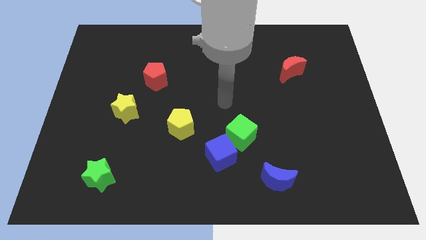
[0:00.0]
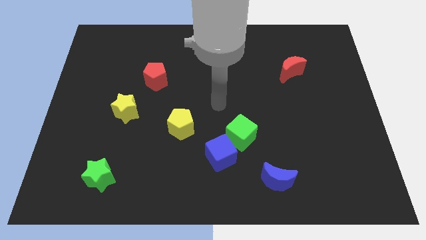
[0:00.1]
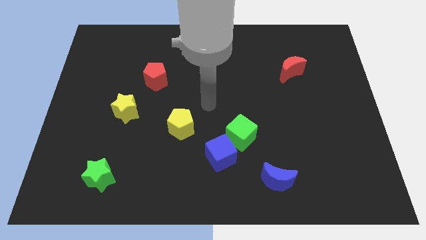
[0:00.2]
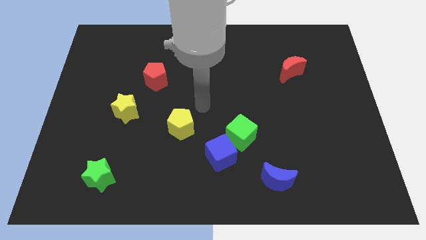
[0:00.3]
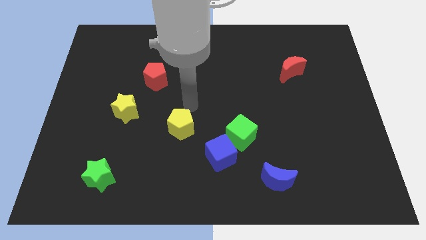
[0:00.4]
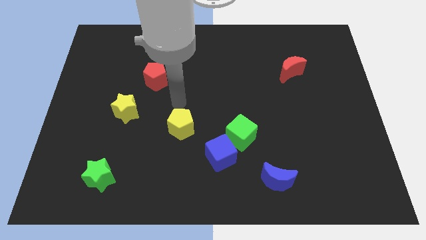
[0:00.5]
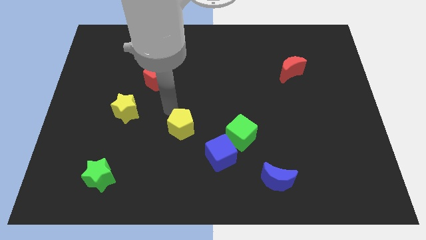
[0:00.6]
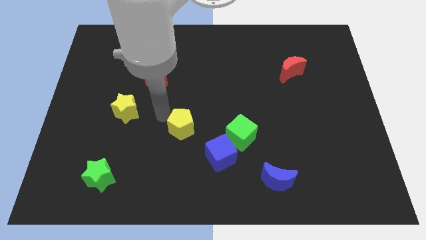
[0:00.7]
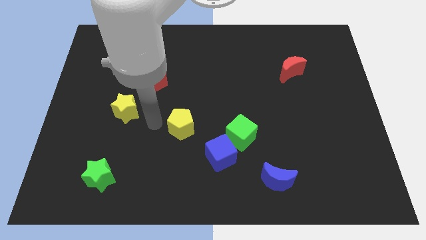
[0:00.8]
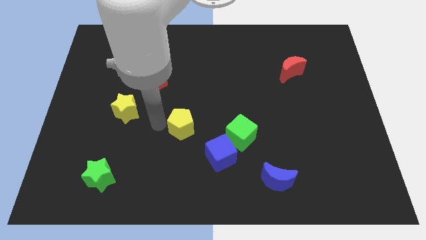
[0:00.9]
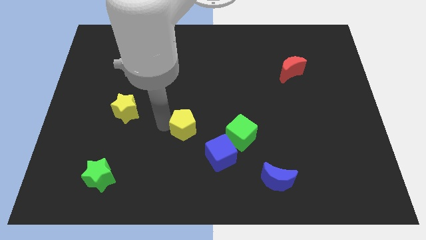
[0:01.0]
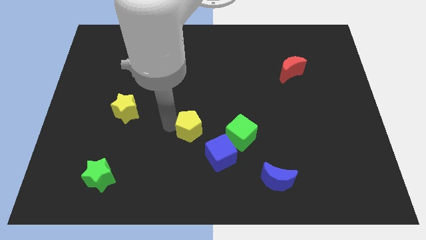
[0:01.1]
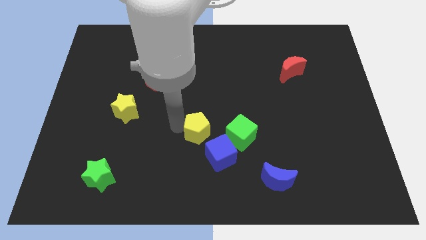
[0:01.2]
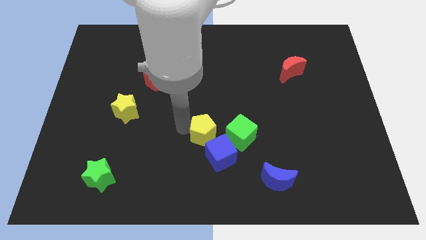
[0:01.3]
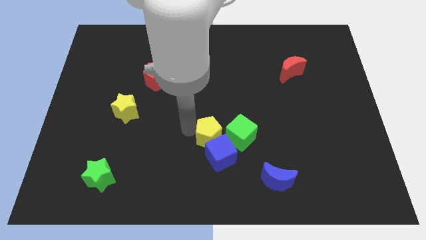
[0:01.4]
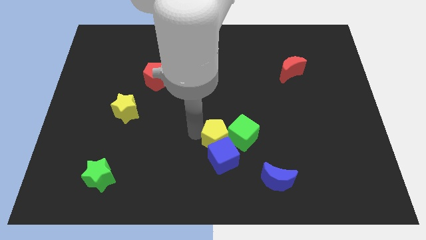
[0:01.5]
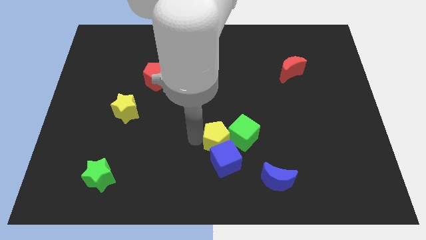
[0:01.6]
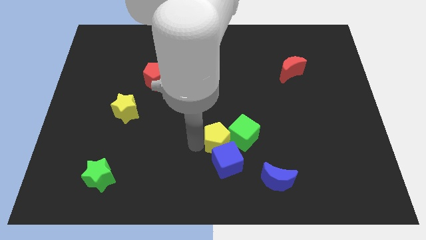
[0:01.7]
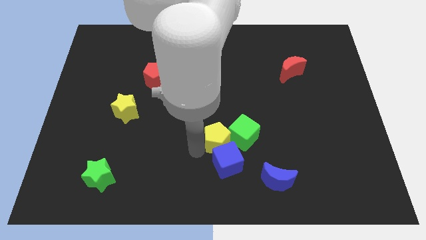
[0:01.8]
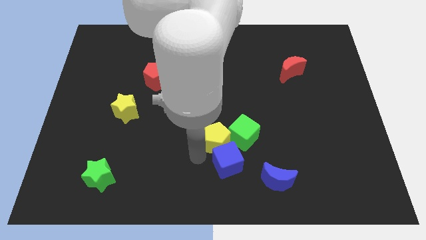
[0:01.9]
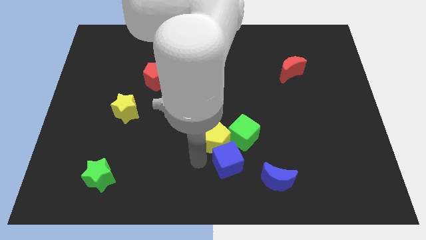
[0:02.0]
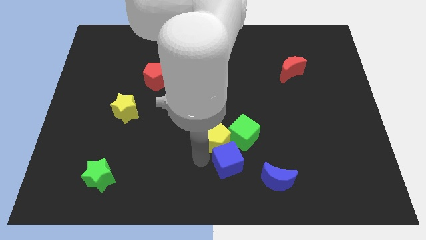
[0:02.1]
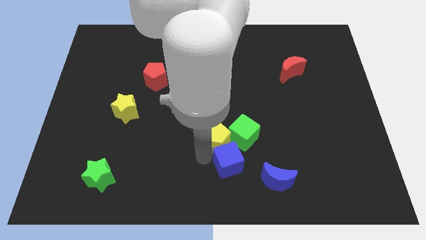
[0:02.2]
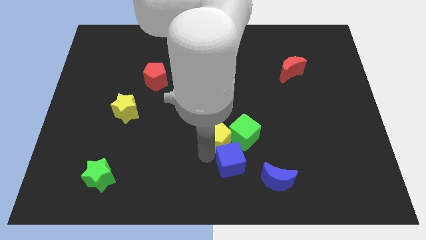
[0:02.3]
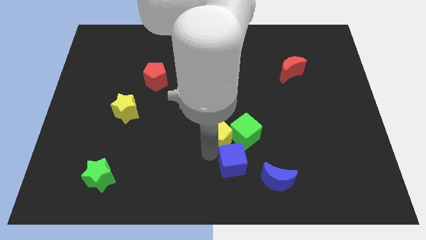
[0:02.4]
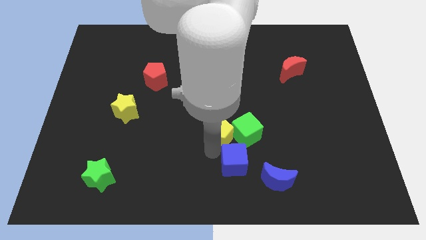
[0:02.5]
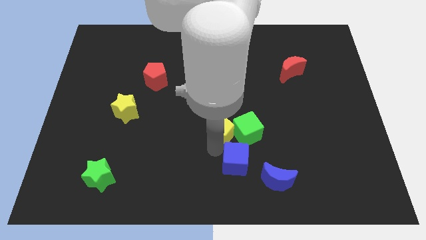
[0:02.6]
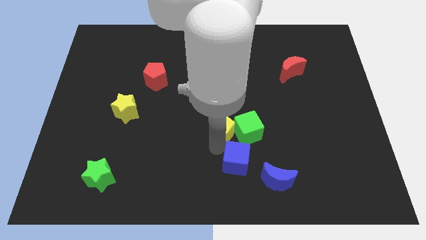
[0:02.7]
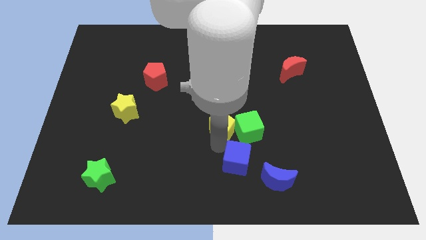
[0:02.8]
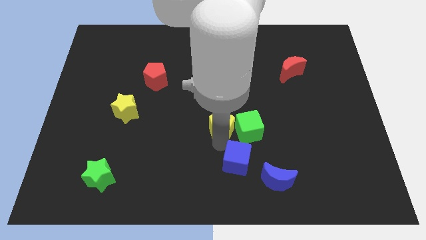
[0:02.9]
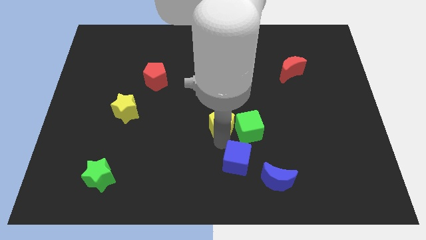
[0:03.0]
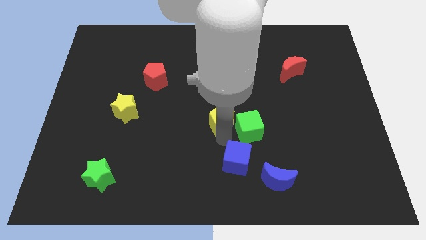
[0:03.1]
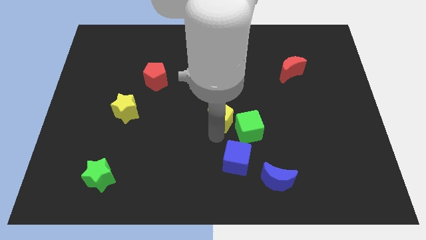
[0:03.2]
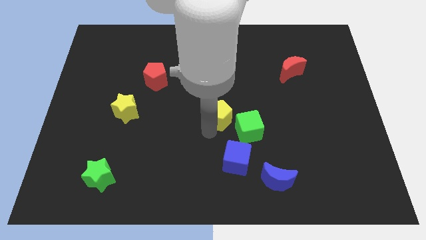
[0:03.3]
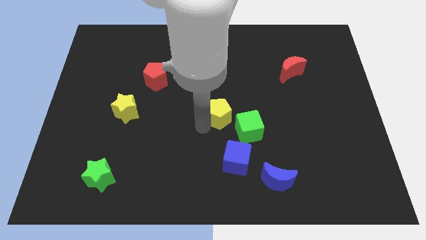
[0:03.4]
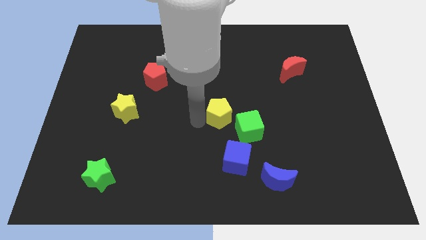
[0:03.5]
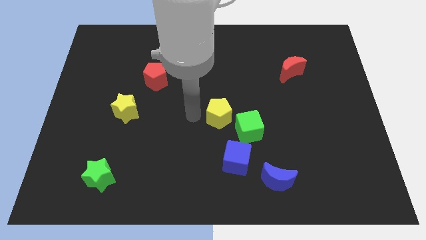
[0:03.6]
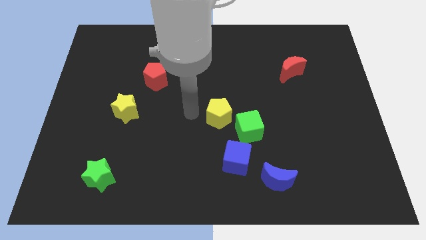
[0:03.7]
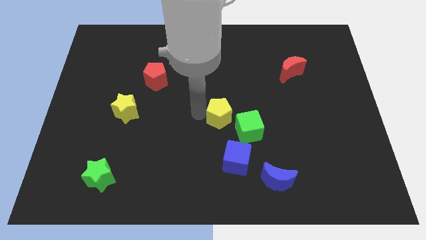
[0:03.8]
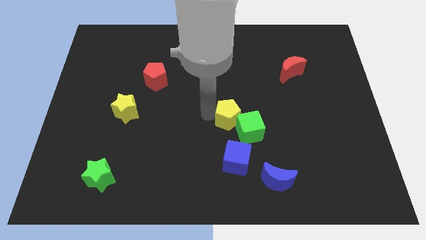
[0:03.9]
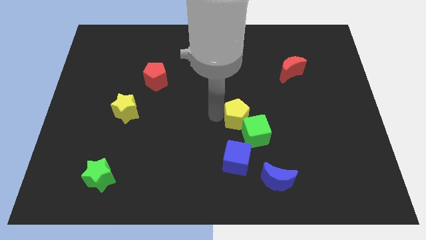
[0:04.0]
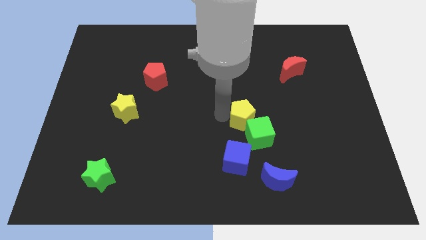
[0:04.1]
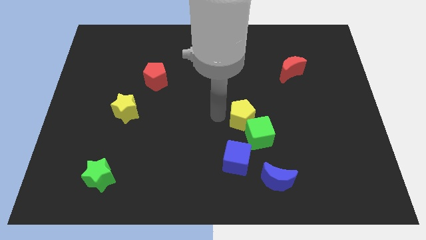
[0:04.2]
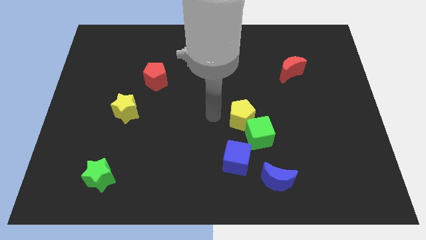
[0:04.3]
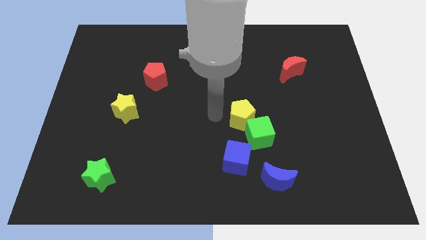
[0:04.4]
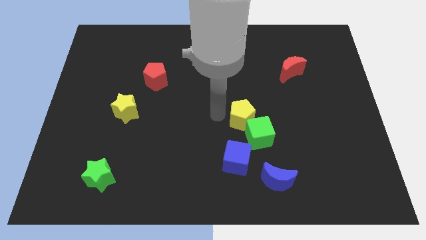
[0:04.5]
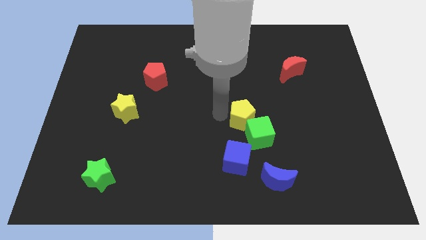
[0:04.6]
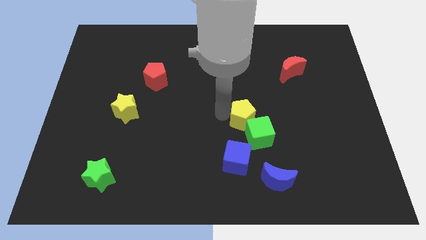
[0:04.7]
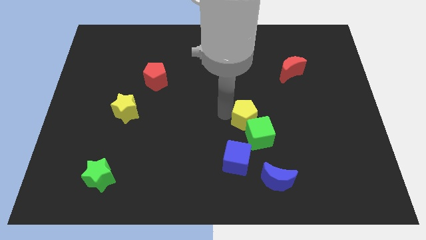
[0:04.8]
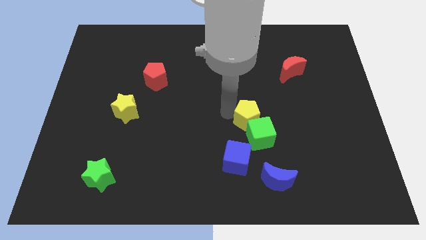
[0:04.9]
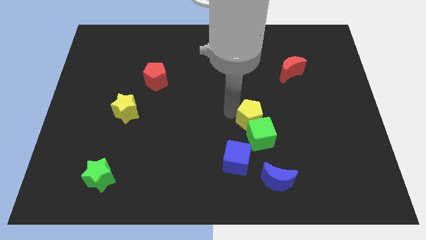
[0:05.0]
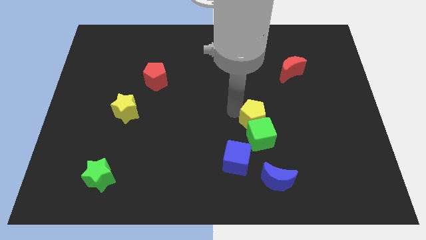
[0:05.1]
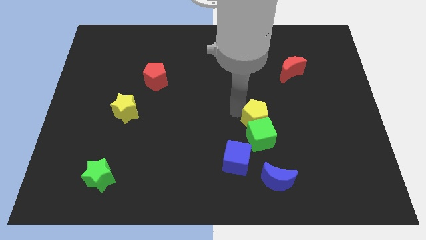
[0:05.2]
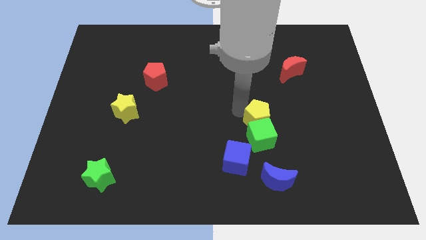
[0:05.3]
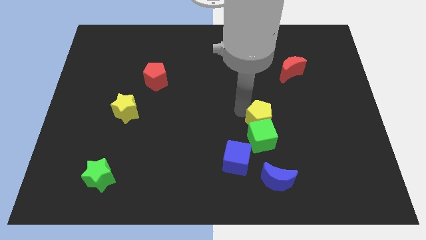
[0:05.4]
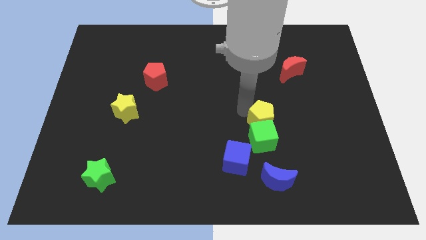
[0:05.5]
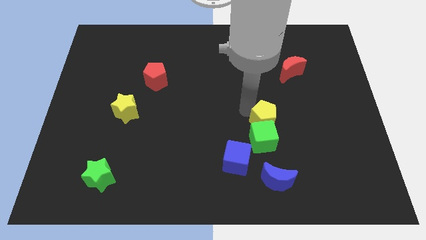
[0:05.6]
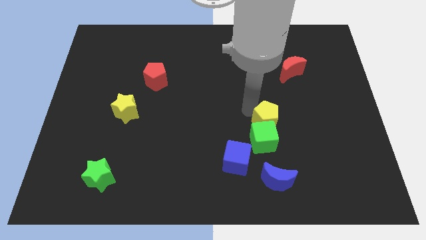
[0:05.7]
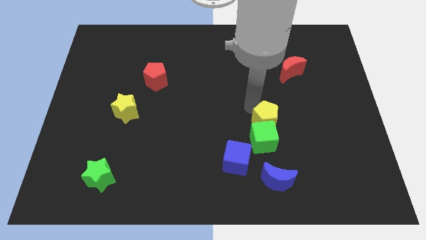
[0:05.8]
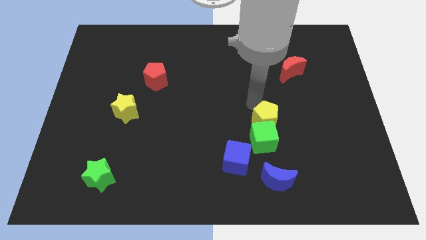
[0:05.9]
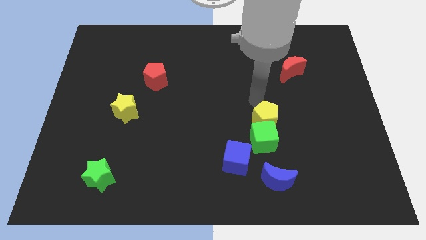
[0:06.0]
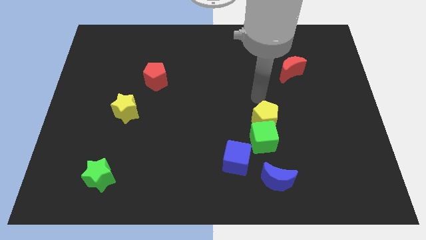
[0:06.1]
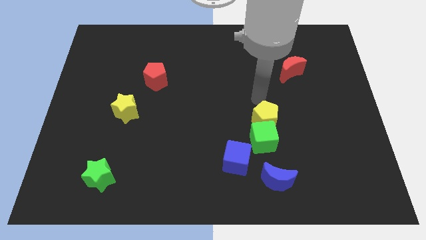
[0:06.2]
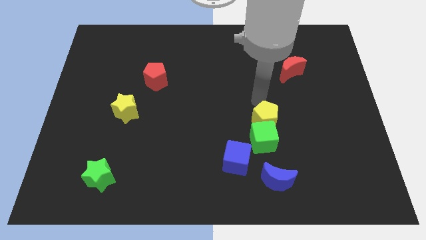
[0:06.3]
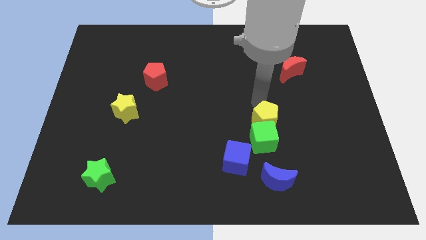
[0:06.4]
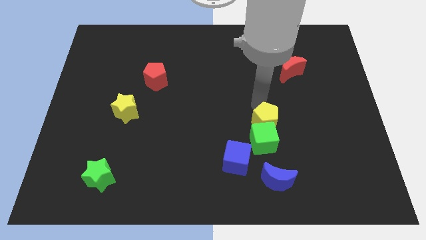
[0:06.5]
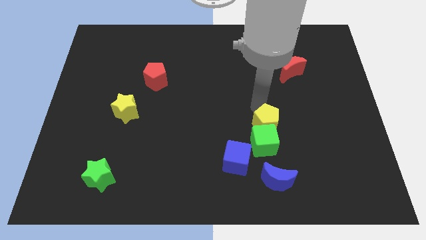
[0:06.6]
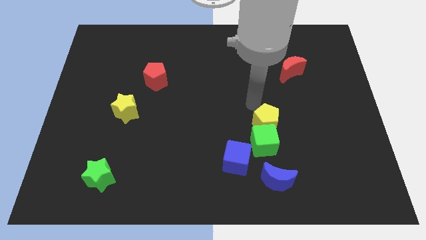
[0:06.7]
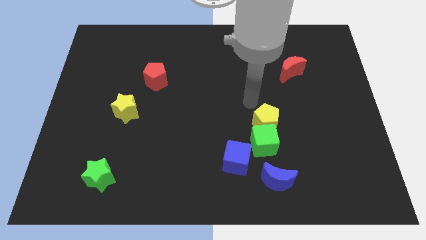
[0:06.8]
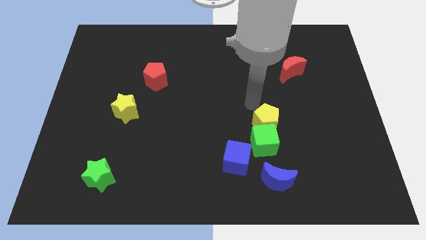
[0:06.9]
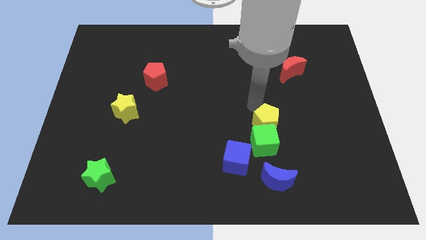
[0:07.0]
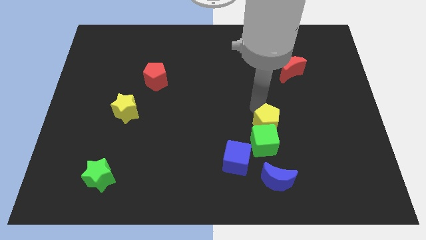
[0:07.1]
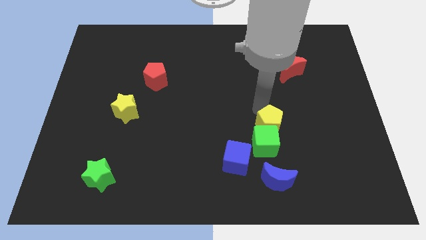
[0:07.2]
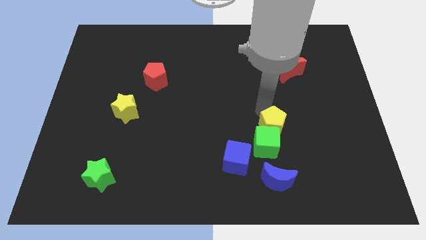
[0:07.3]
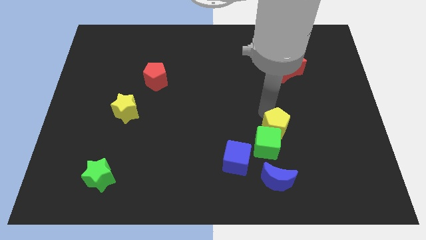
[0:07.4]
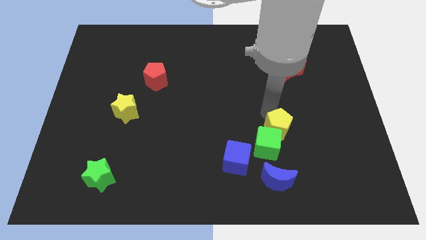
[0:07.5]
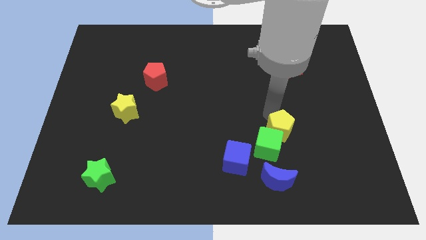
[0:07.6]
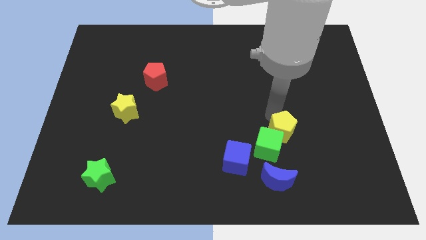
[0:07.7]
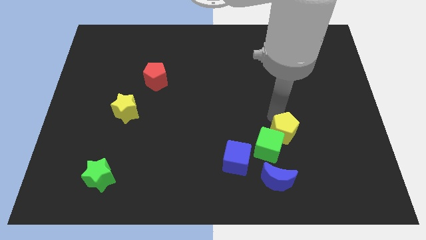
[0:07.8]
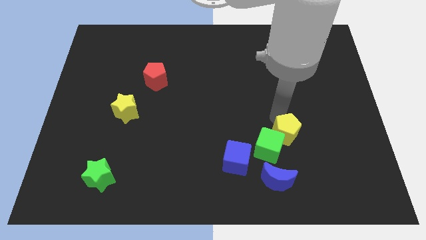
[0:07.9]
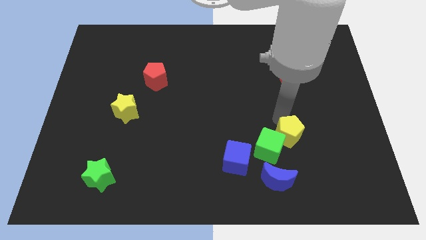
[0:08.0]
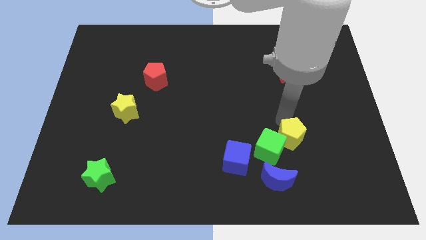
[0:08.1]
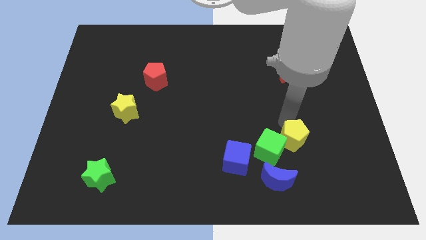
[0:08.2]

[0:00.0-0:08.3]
put the yellow pentagon to the top right of the blue moon
